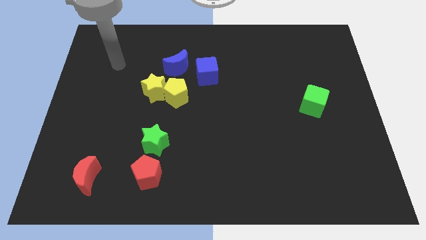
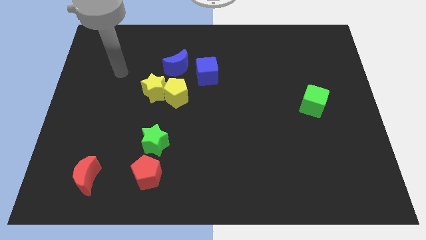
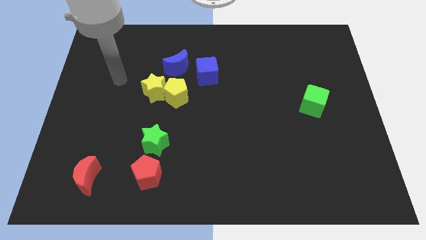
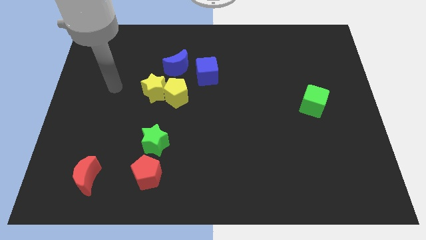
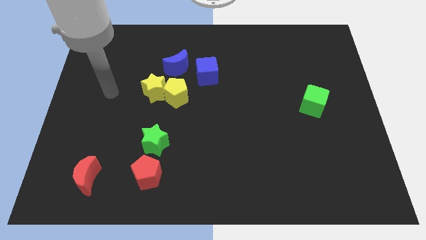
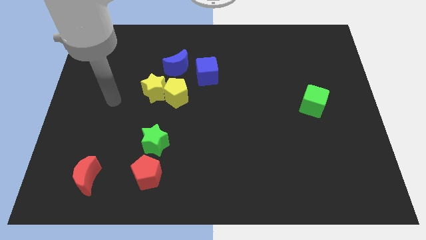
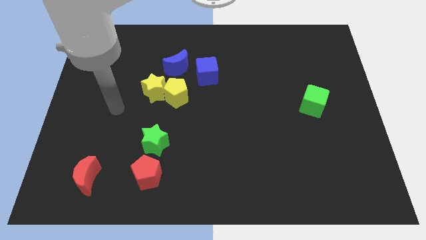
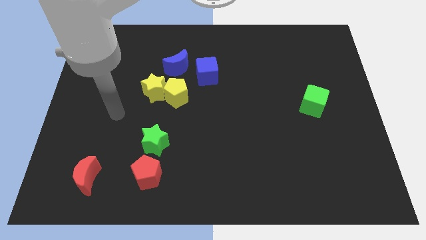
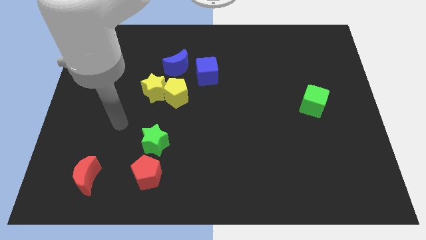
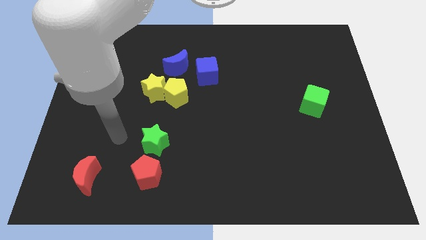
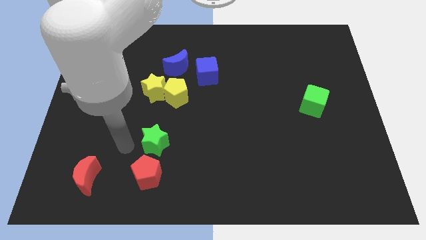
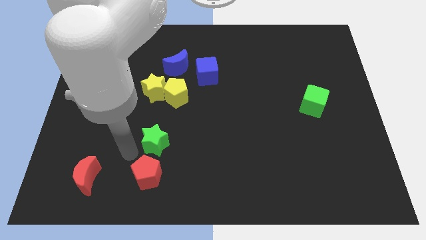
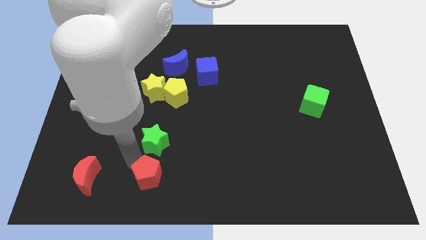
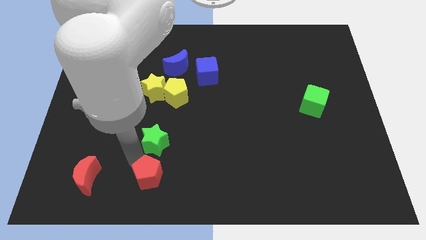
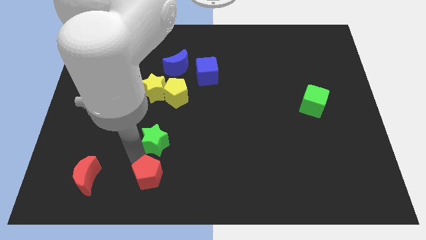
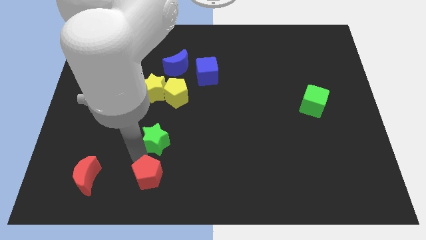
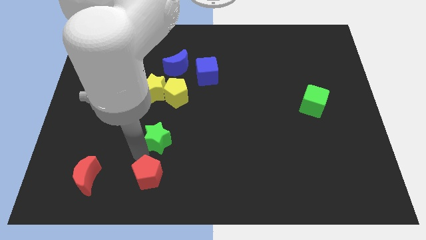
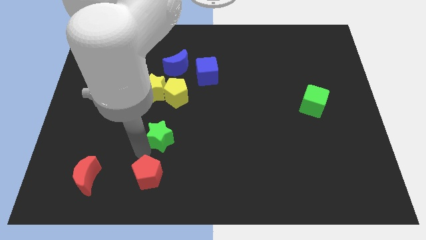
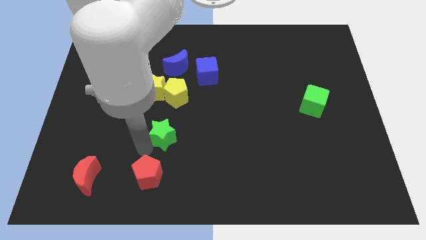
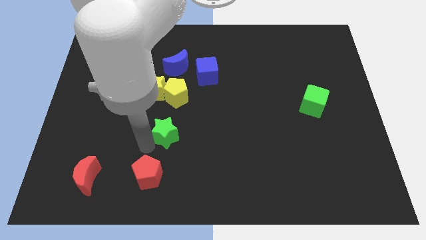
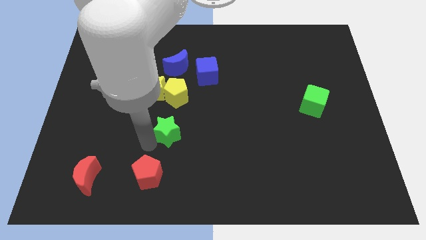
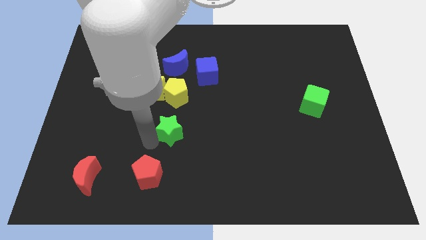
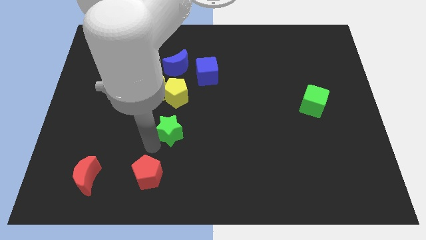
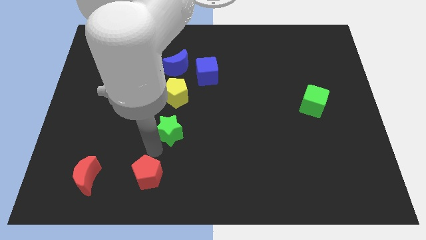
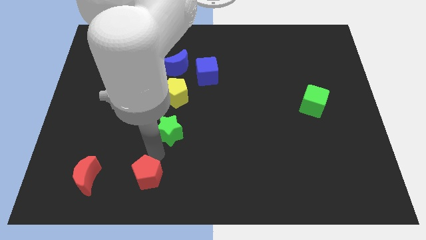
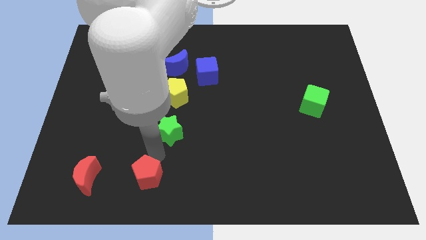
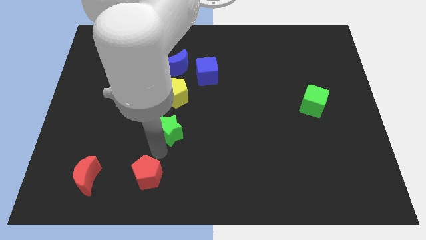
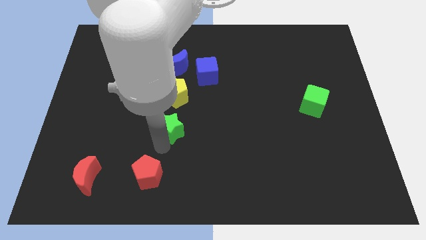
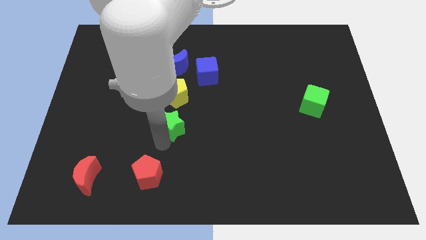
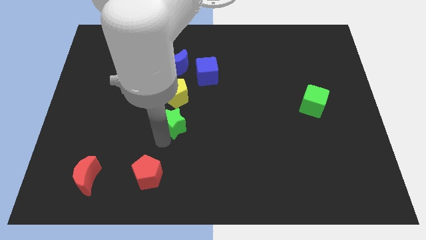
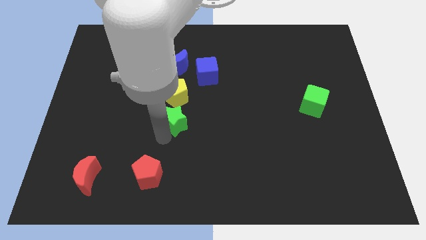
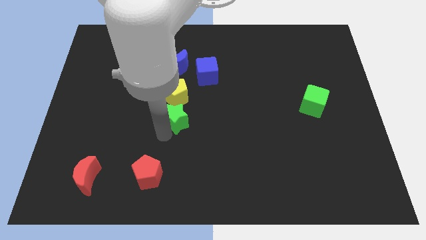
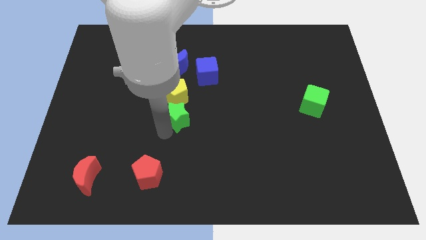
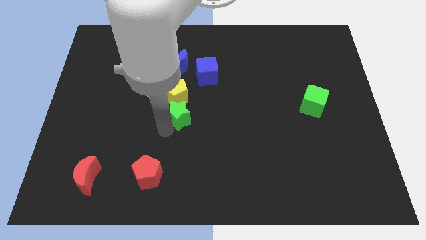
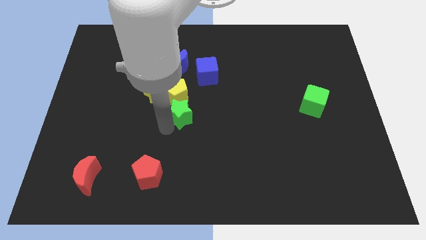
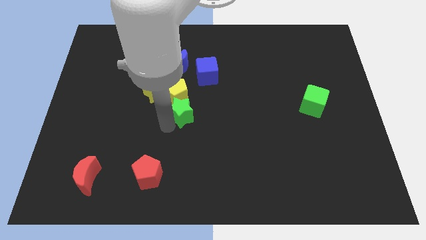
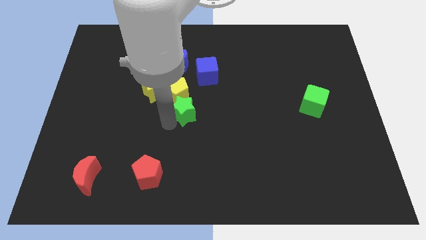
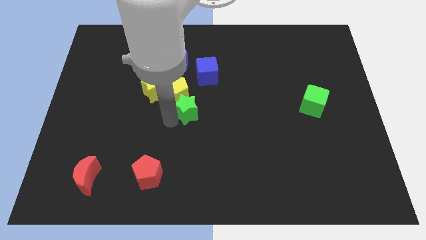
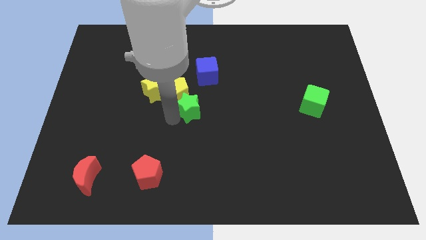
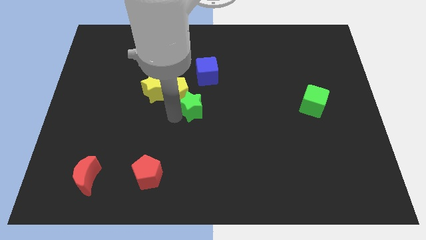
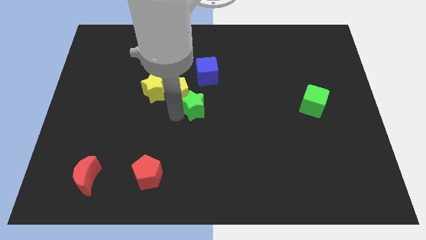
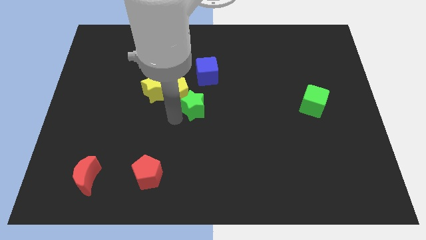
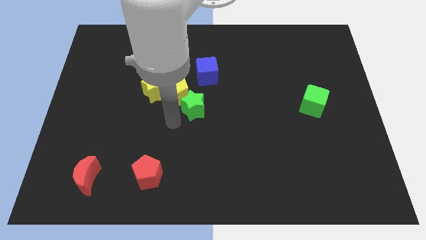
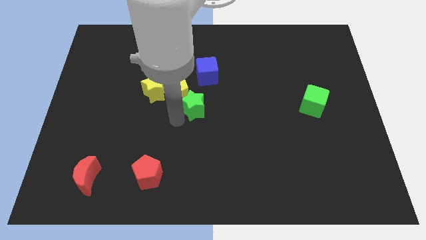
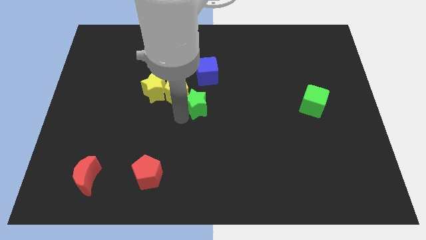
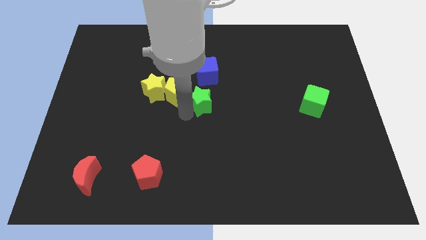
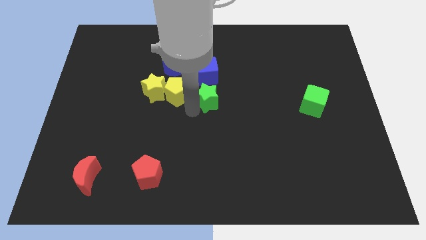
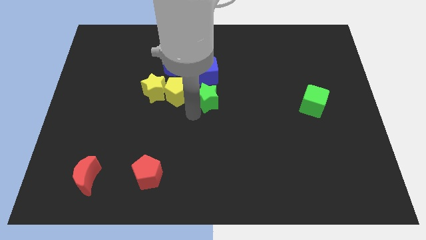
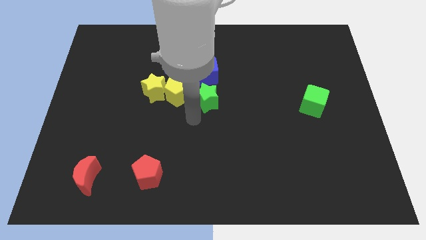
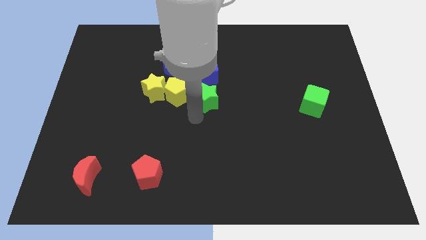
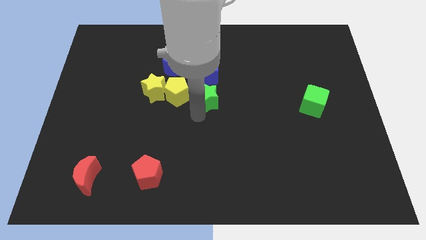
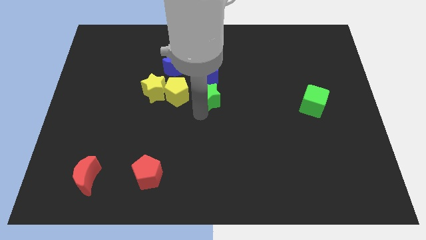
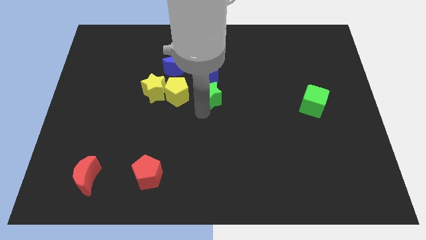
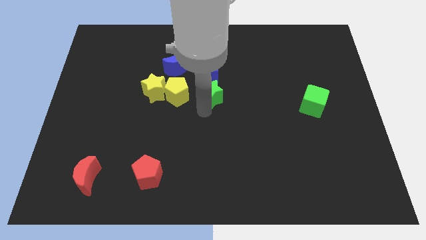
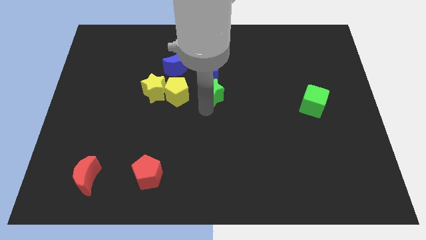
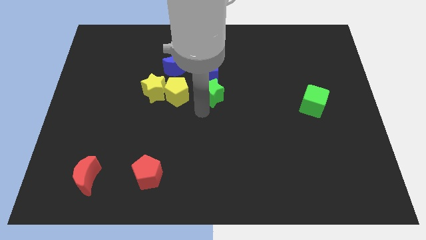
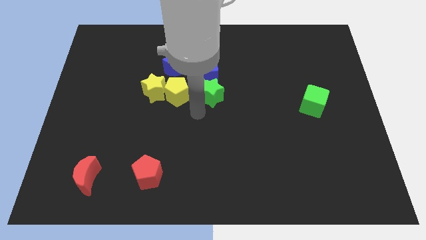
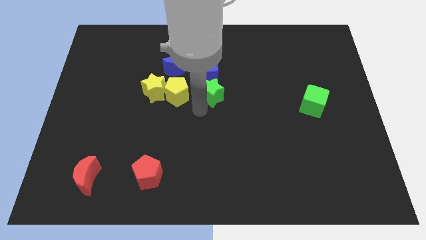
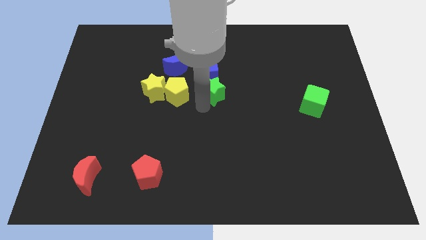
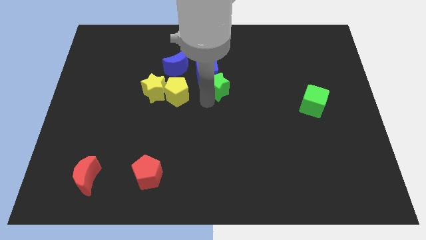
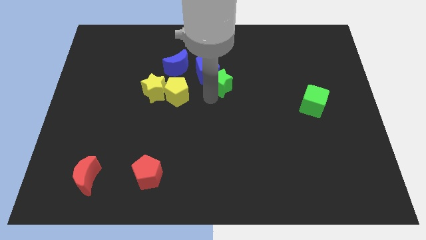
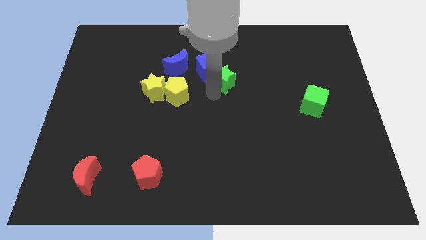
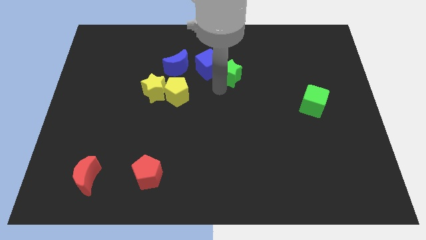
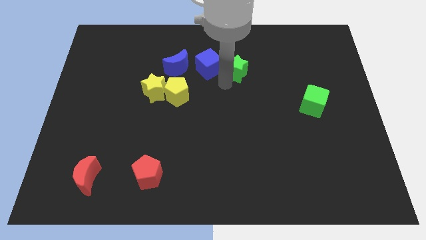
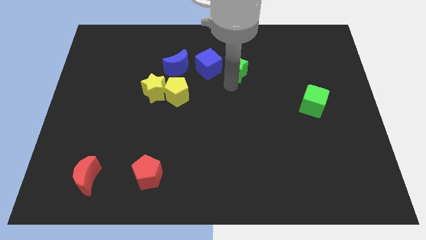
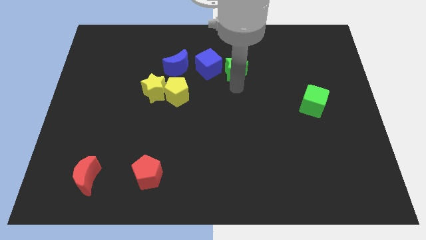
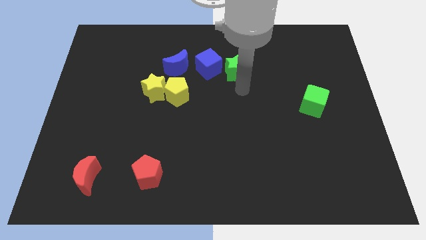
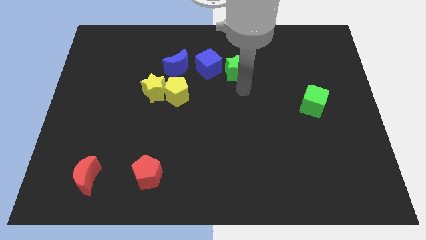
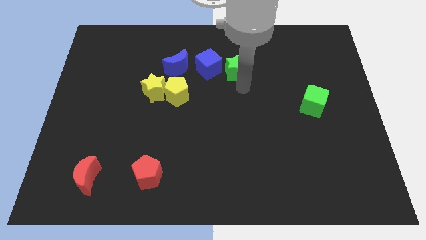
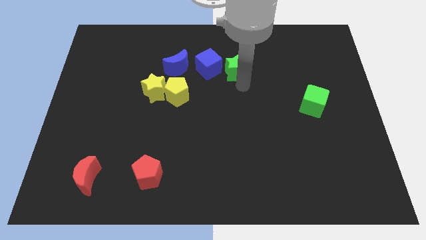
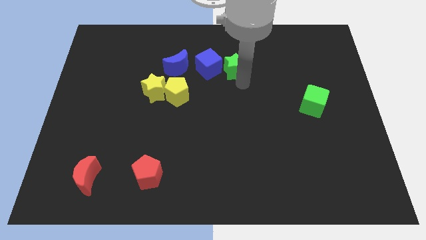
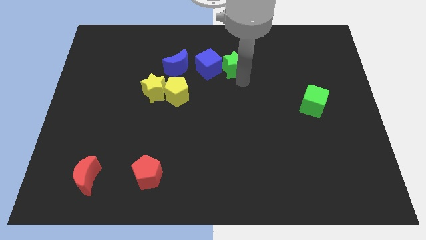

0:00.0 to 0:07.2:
move the green star to the top right of the blue cube
